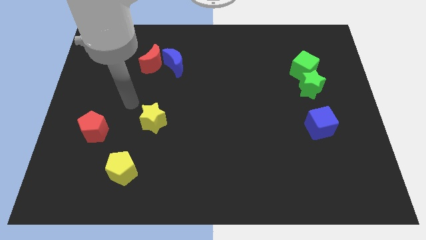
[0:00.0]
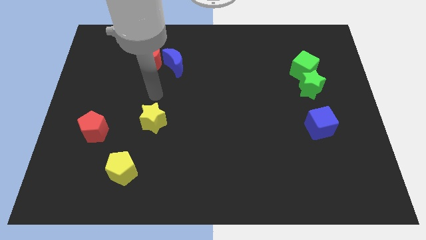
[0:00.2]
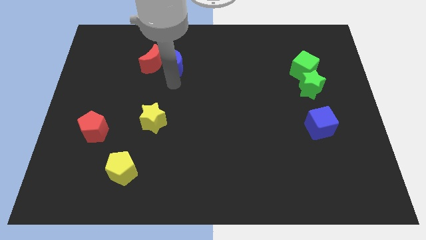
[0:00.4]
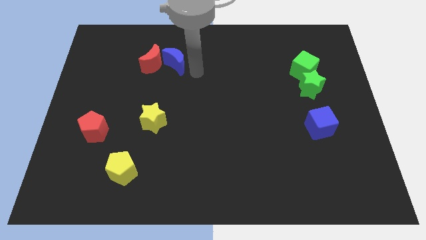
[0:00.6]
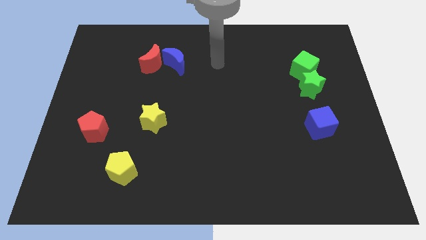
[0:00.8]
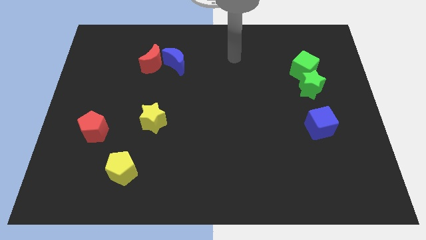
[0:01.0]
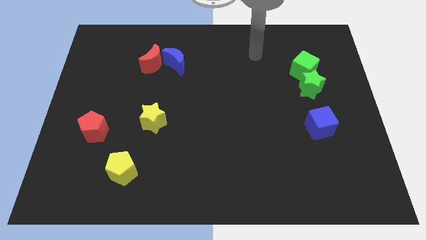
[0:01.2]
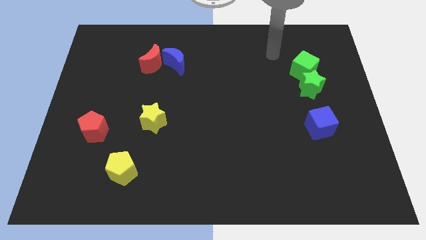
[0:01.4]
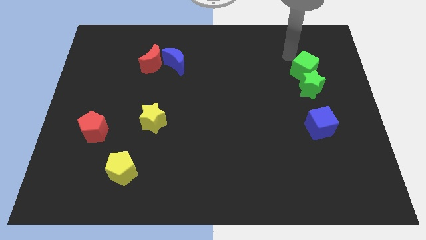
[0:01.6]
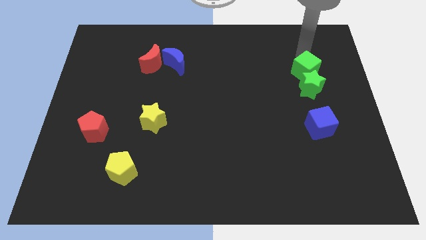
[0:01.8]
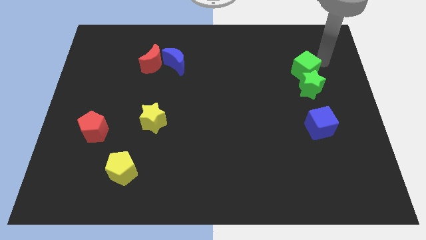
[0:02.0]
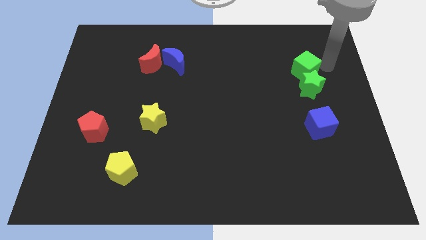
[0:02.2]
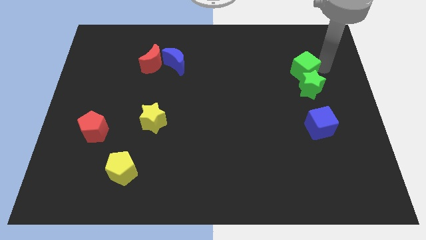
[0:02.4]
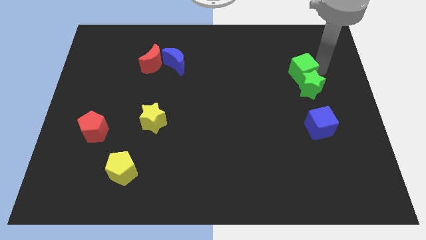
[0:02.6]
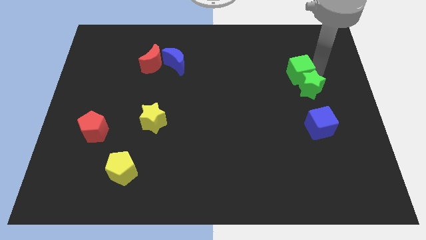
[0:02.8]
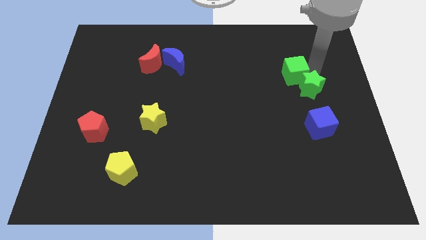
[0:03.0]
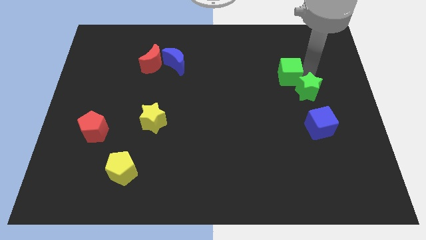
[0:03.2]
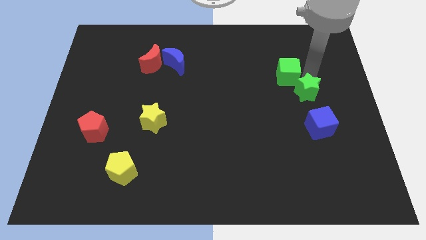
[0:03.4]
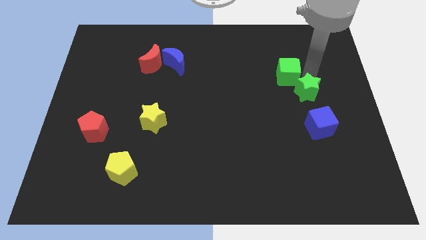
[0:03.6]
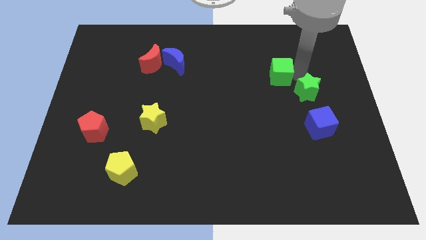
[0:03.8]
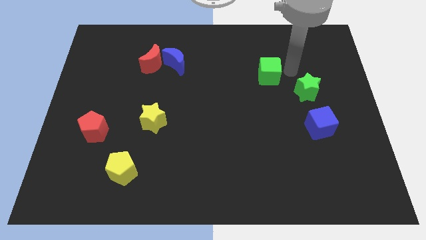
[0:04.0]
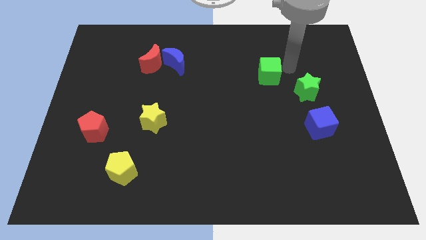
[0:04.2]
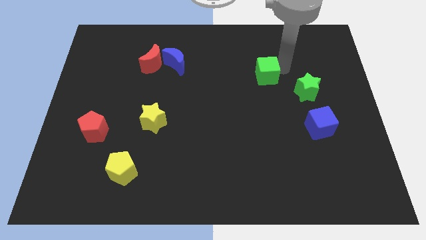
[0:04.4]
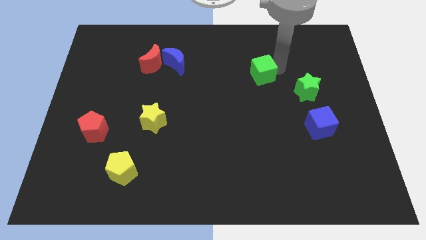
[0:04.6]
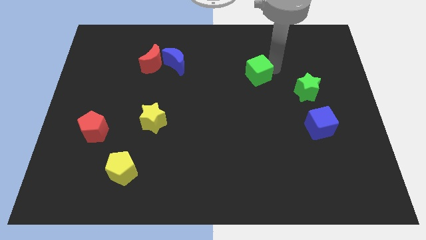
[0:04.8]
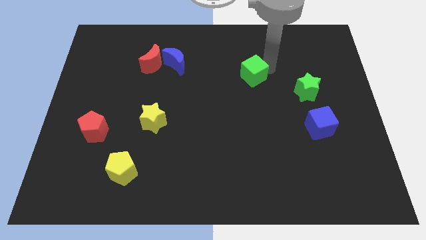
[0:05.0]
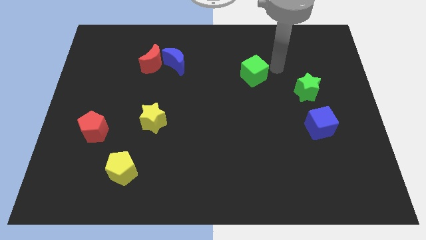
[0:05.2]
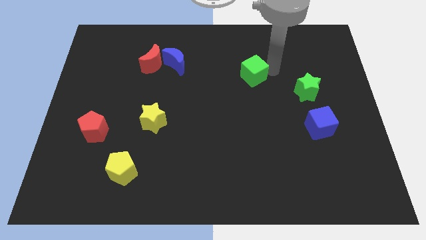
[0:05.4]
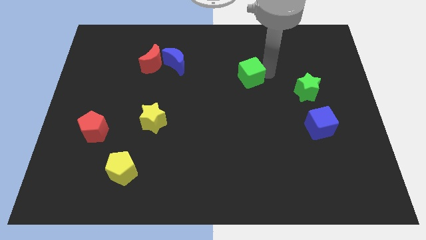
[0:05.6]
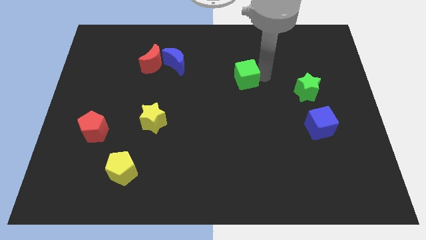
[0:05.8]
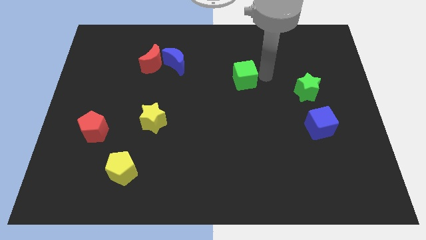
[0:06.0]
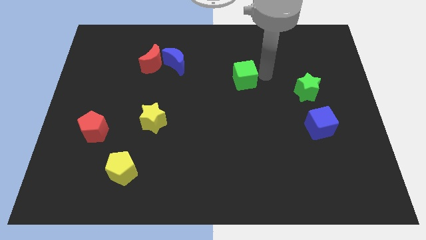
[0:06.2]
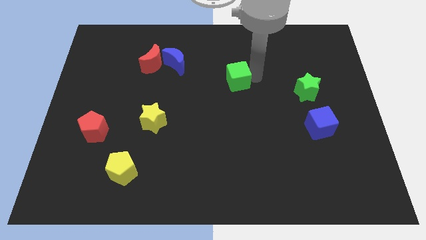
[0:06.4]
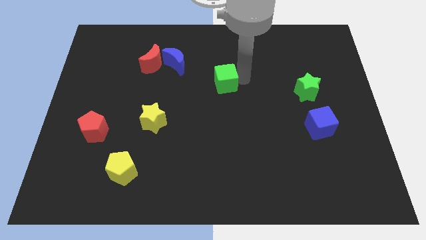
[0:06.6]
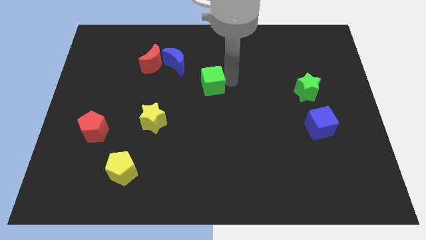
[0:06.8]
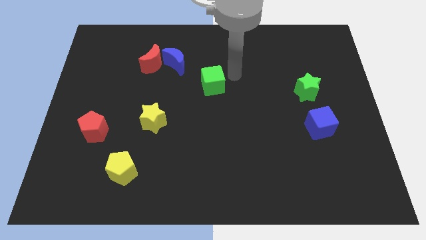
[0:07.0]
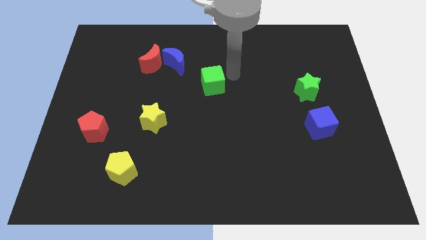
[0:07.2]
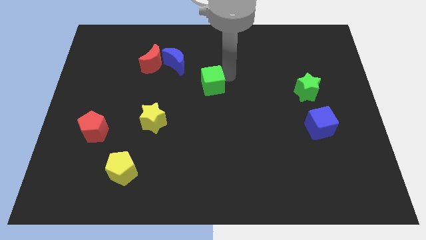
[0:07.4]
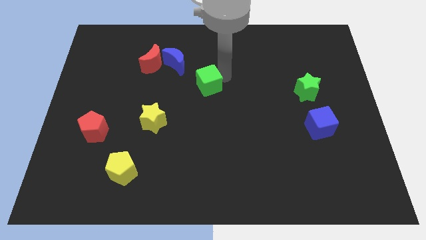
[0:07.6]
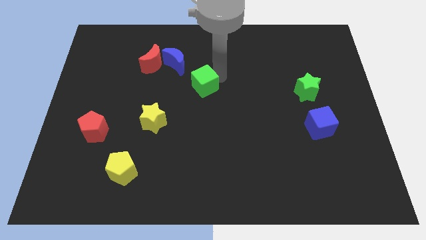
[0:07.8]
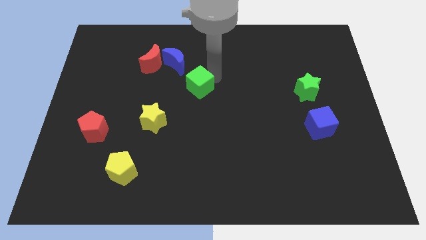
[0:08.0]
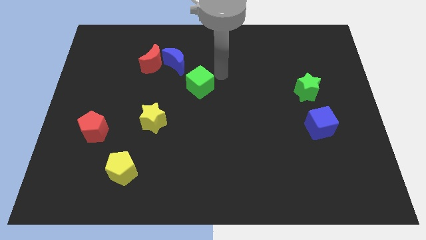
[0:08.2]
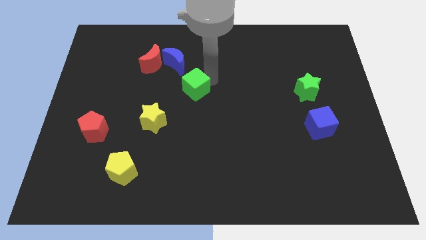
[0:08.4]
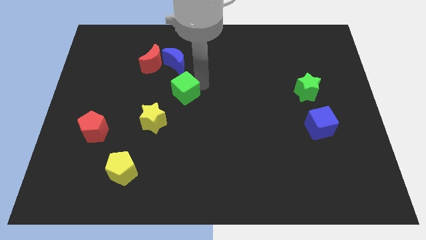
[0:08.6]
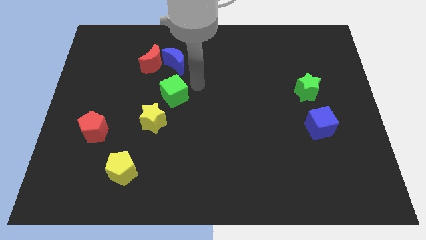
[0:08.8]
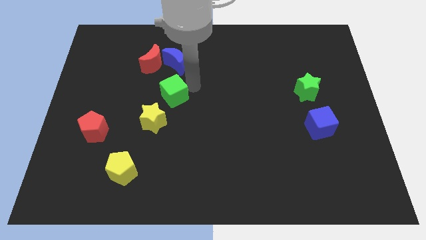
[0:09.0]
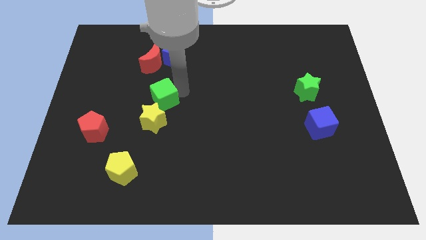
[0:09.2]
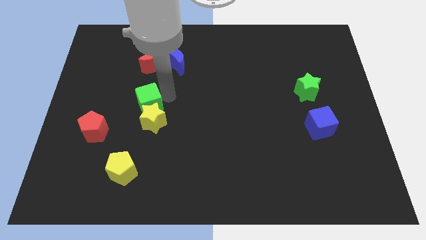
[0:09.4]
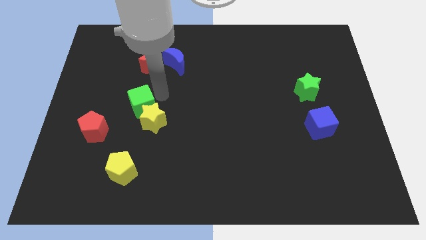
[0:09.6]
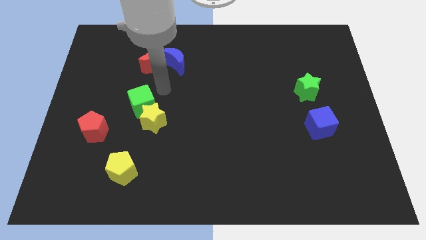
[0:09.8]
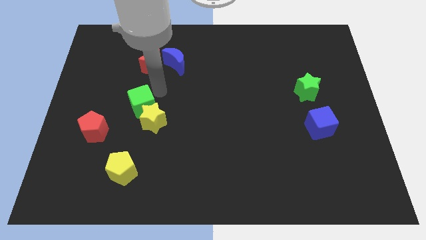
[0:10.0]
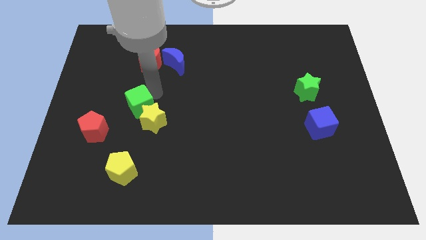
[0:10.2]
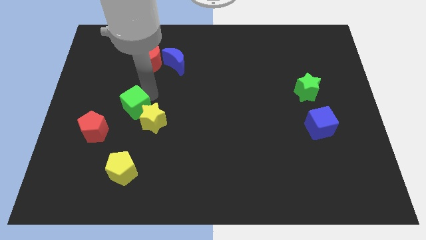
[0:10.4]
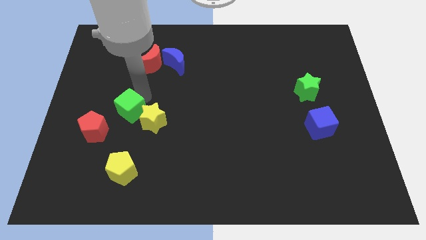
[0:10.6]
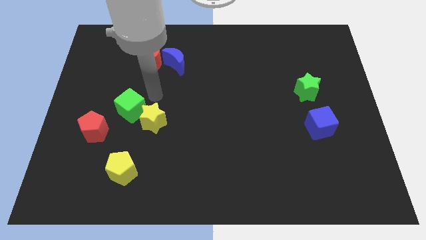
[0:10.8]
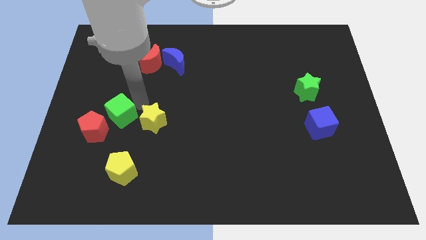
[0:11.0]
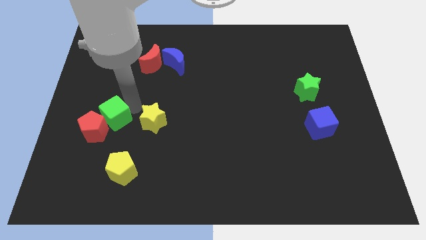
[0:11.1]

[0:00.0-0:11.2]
put the green cube to the red pentagon

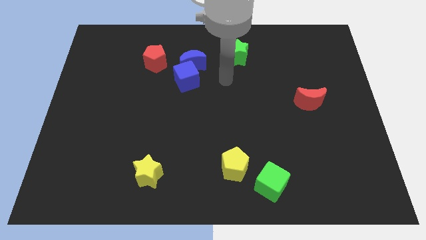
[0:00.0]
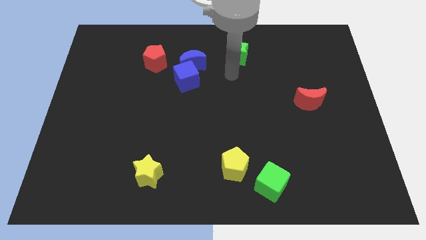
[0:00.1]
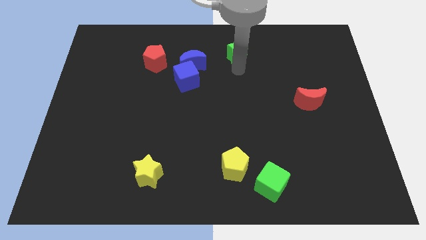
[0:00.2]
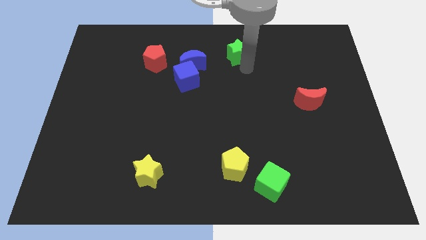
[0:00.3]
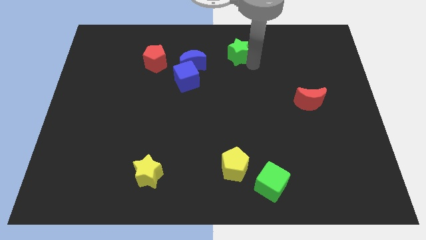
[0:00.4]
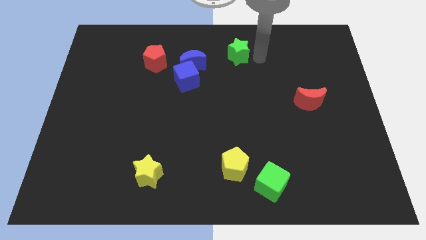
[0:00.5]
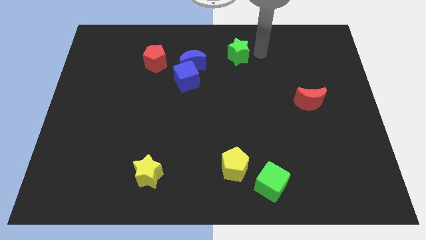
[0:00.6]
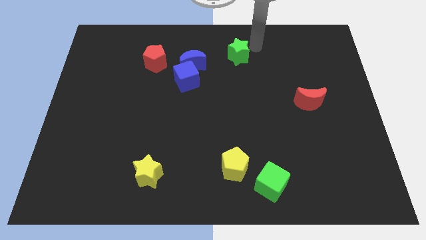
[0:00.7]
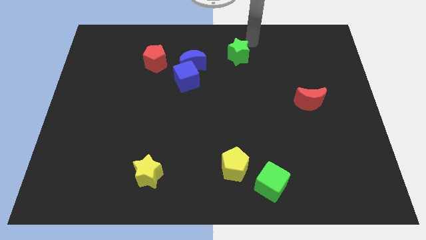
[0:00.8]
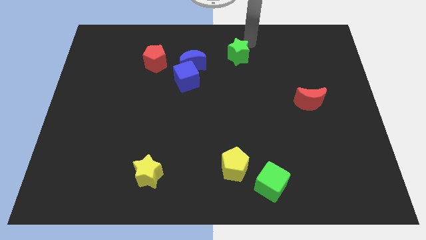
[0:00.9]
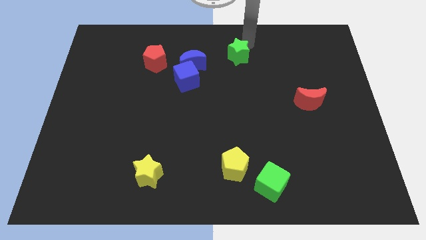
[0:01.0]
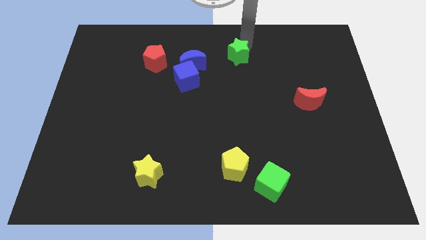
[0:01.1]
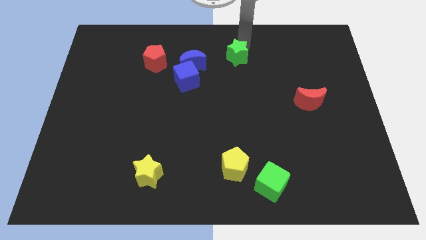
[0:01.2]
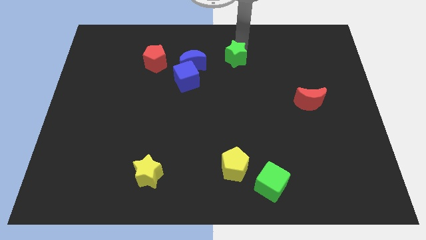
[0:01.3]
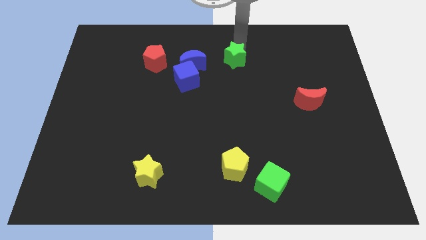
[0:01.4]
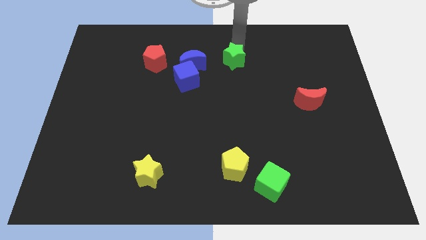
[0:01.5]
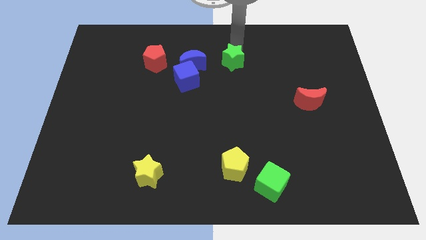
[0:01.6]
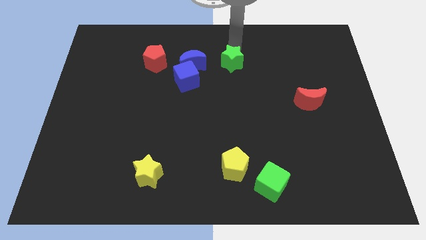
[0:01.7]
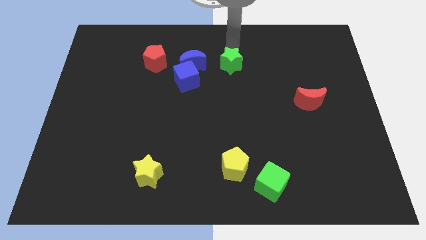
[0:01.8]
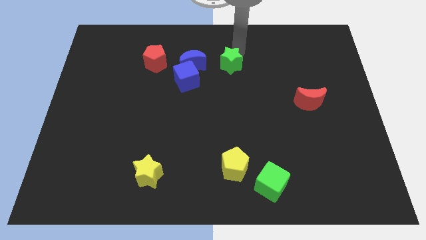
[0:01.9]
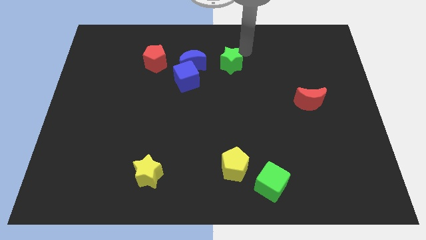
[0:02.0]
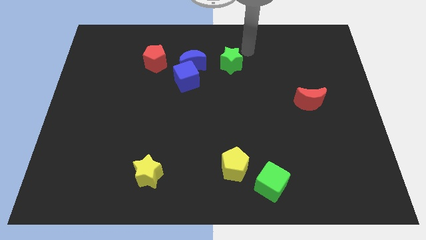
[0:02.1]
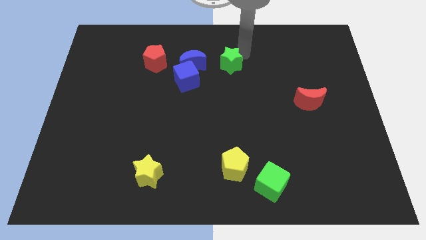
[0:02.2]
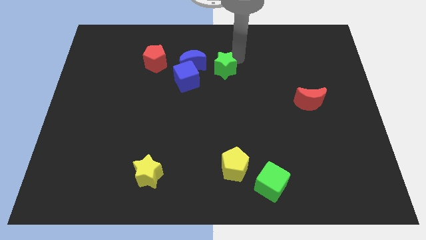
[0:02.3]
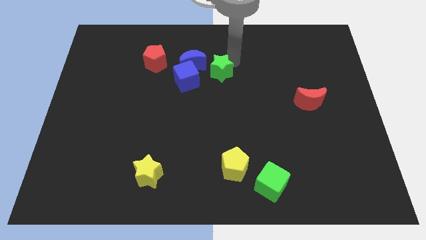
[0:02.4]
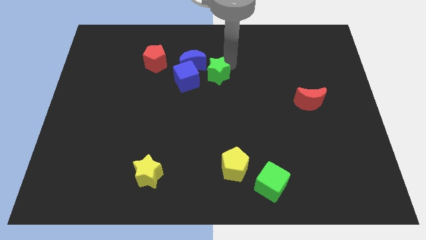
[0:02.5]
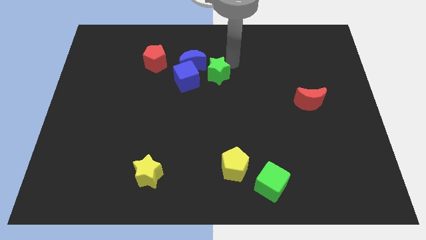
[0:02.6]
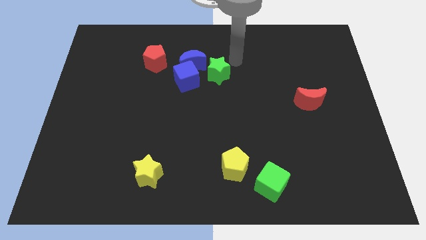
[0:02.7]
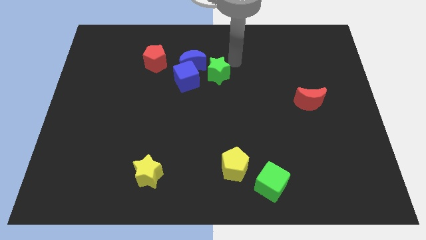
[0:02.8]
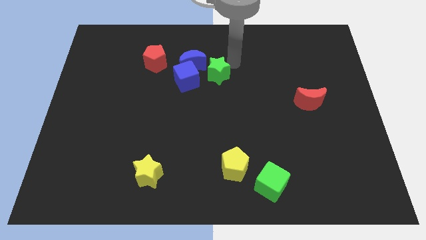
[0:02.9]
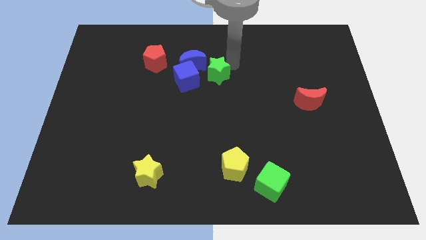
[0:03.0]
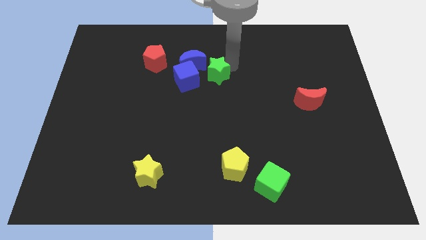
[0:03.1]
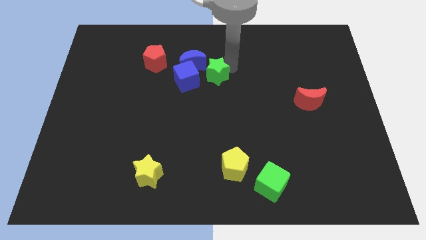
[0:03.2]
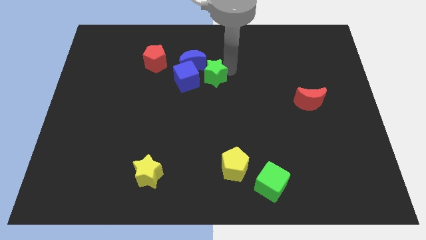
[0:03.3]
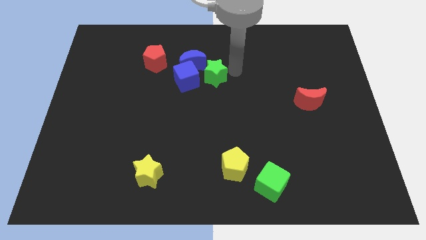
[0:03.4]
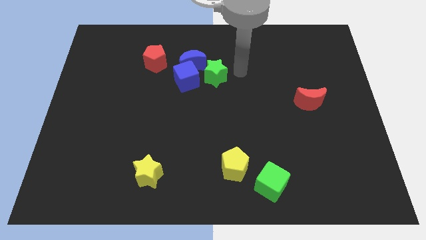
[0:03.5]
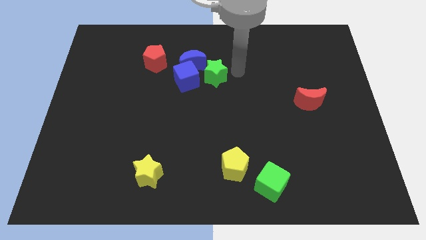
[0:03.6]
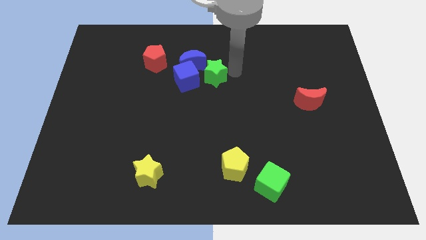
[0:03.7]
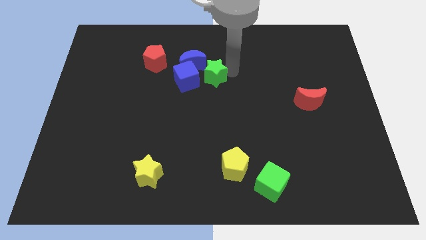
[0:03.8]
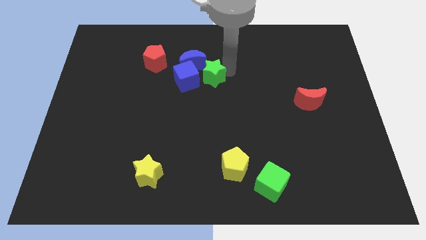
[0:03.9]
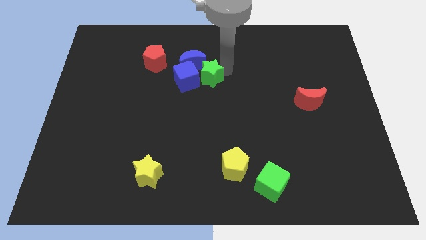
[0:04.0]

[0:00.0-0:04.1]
move the green star towards the blue cube
